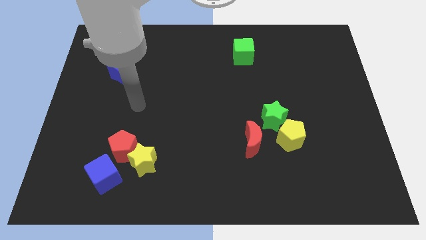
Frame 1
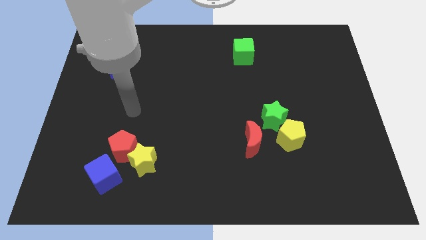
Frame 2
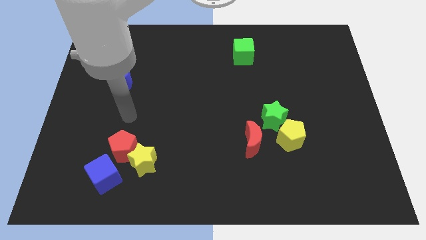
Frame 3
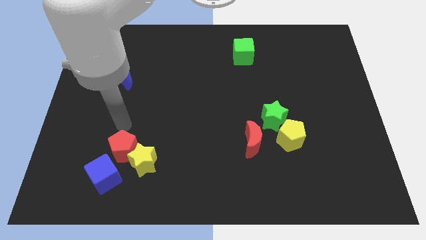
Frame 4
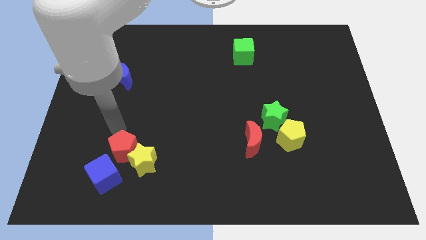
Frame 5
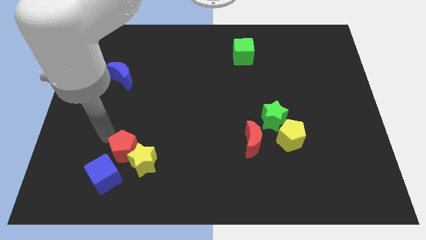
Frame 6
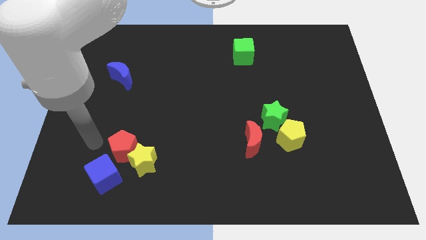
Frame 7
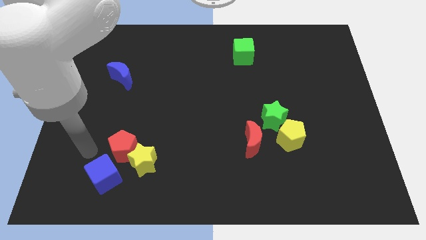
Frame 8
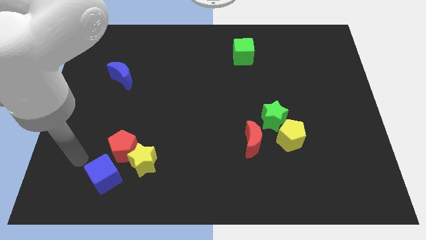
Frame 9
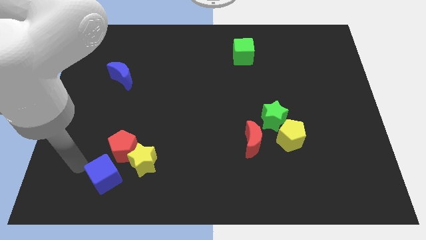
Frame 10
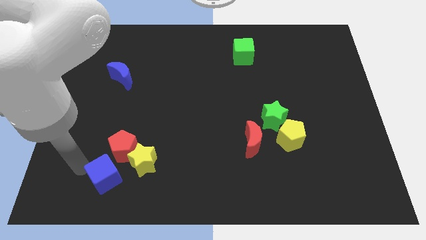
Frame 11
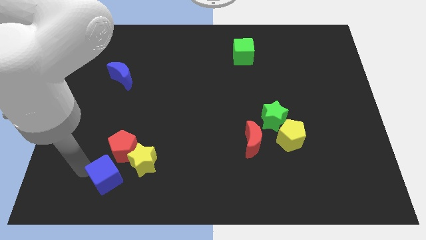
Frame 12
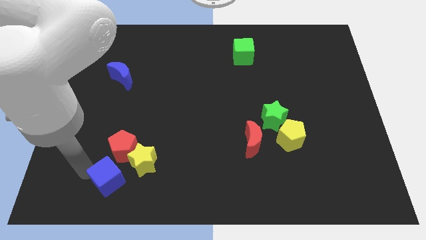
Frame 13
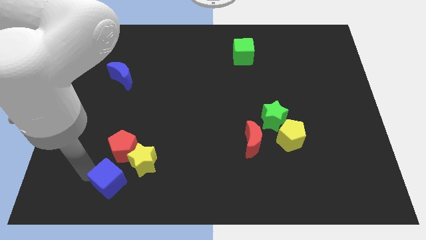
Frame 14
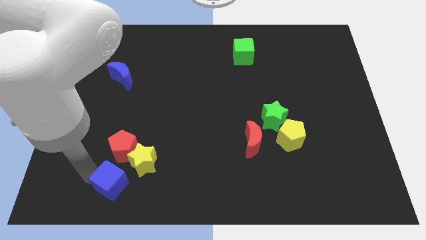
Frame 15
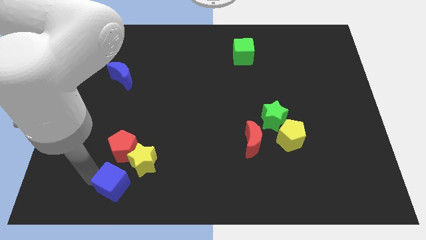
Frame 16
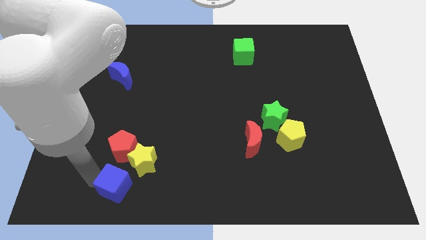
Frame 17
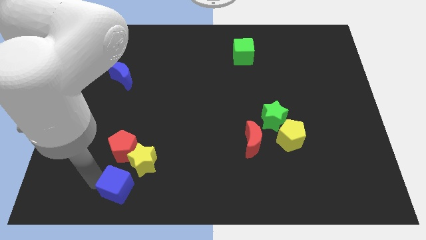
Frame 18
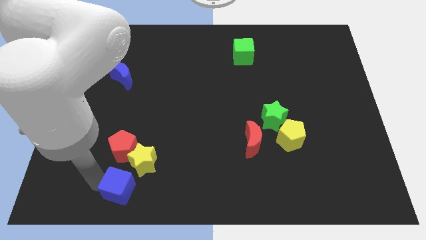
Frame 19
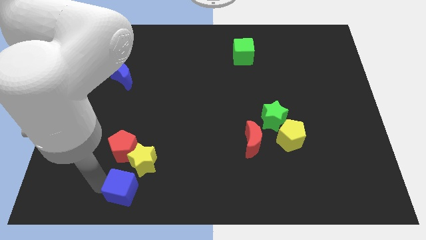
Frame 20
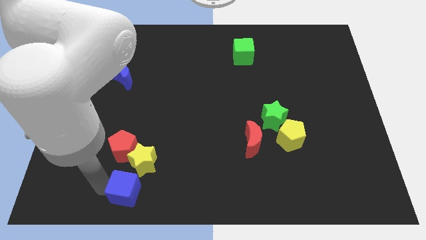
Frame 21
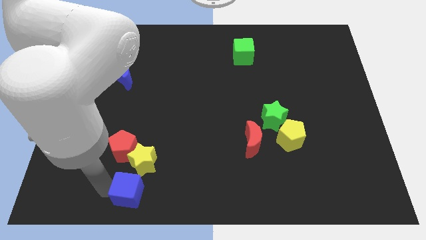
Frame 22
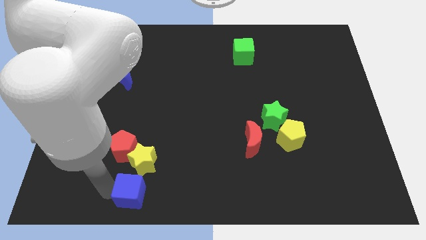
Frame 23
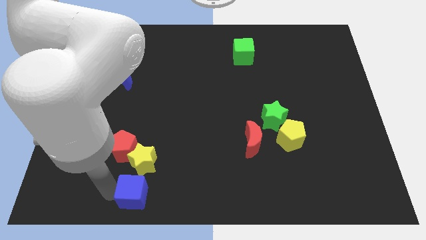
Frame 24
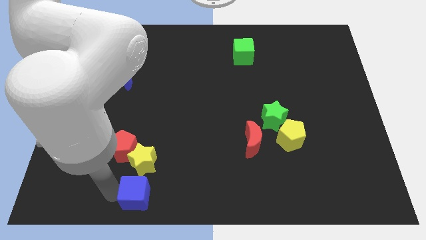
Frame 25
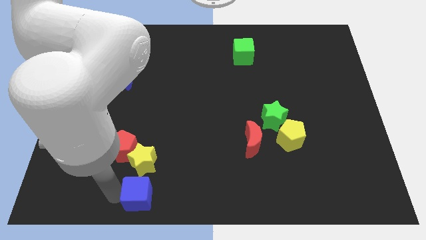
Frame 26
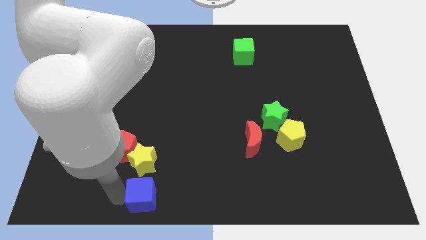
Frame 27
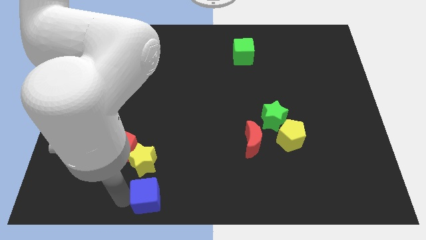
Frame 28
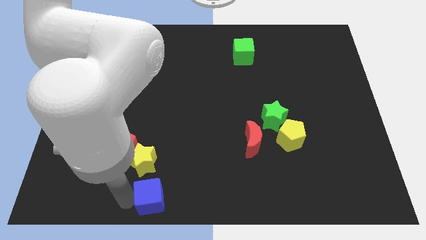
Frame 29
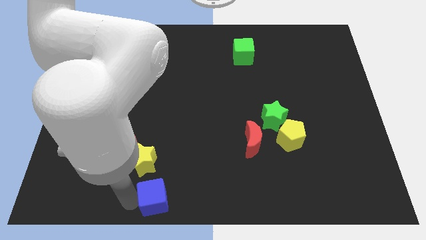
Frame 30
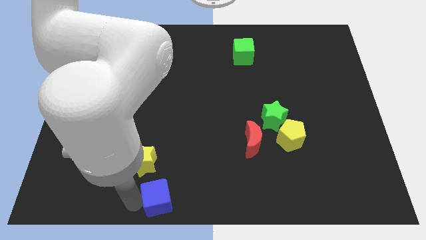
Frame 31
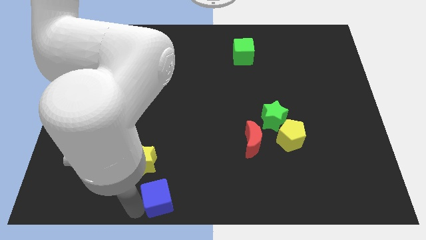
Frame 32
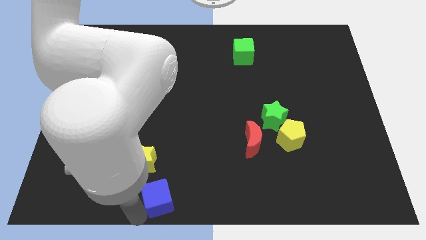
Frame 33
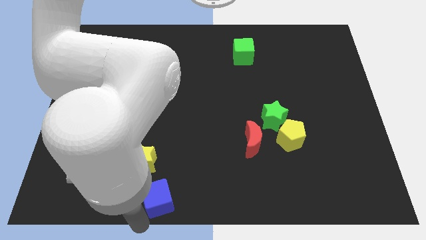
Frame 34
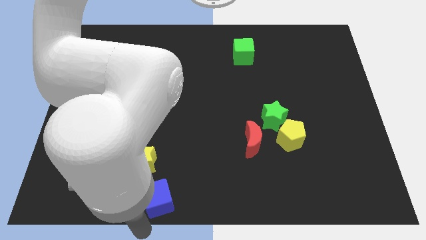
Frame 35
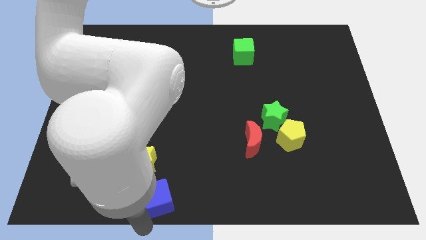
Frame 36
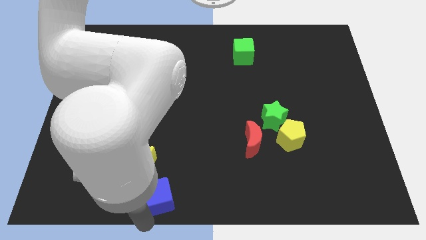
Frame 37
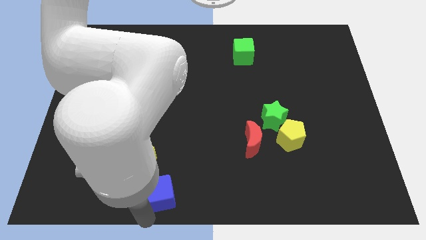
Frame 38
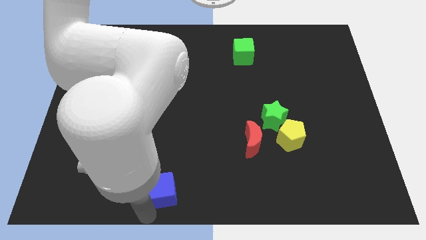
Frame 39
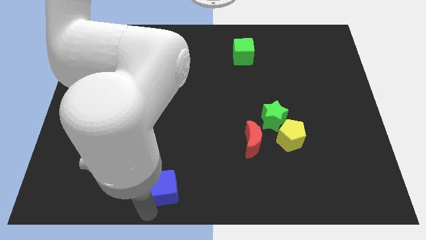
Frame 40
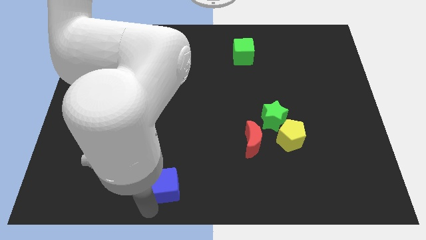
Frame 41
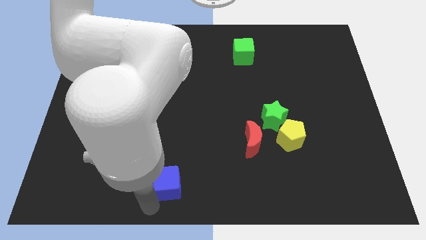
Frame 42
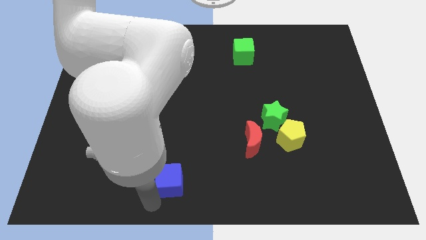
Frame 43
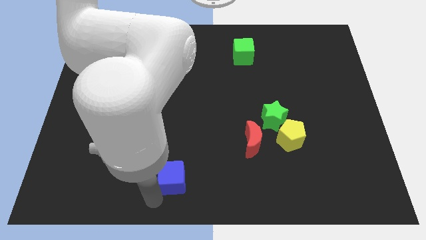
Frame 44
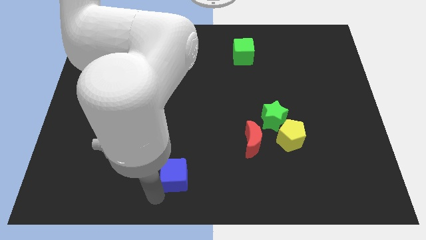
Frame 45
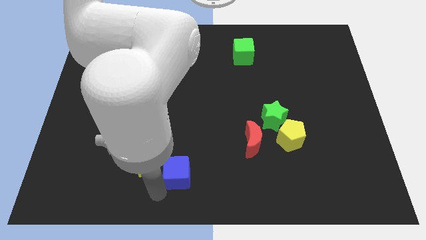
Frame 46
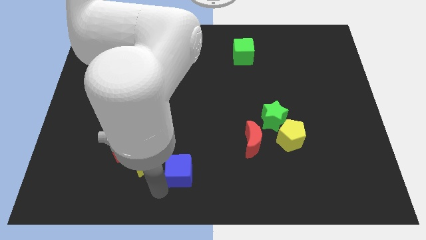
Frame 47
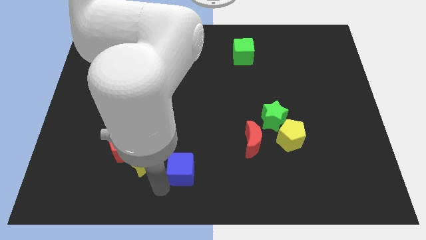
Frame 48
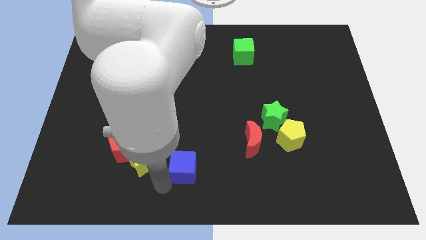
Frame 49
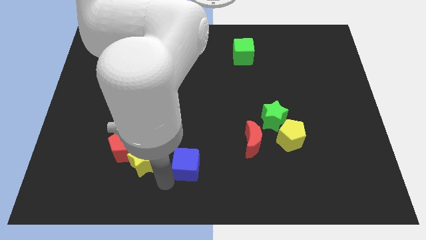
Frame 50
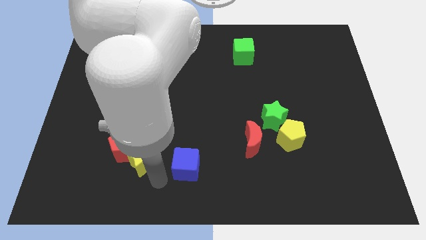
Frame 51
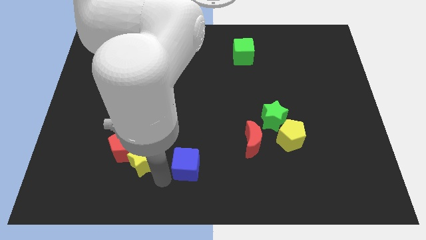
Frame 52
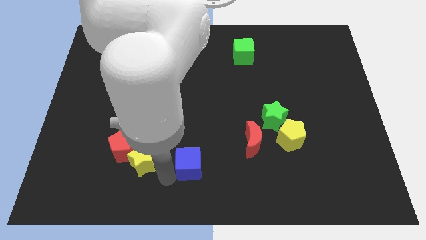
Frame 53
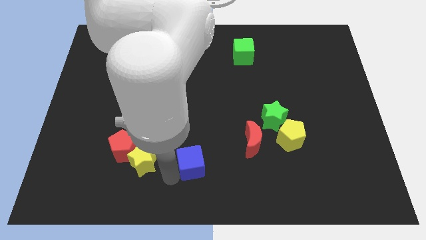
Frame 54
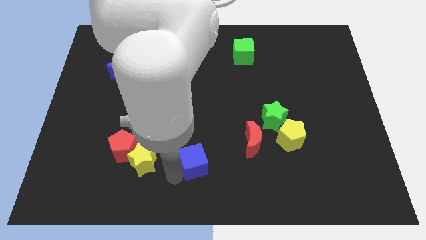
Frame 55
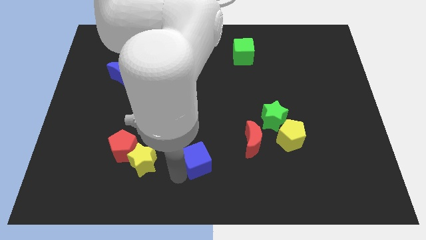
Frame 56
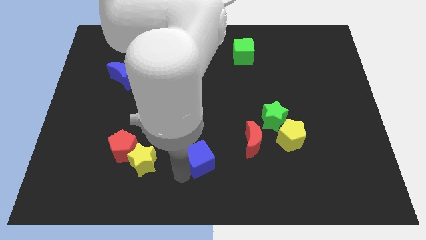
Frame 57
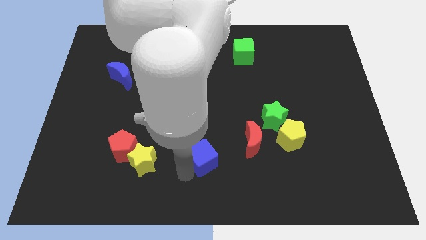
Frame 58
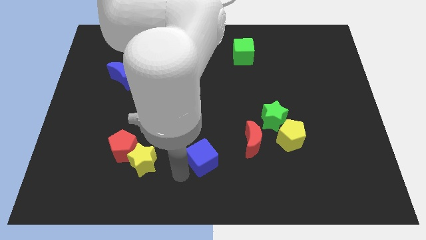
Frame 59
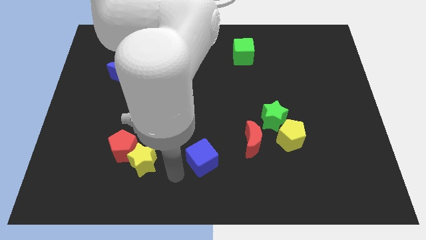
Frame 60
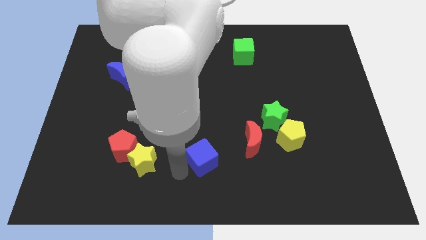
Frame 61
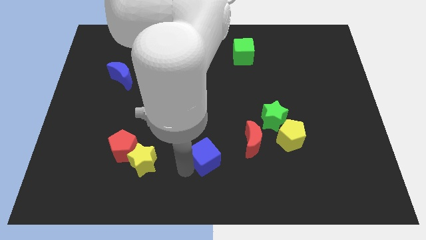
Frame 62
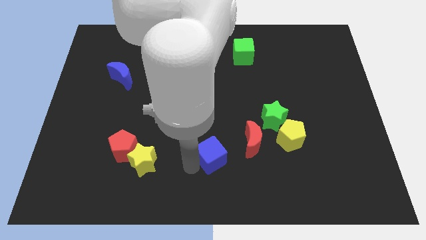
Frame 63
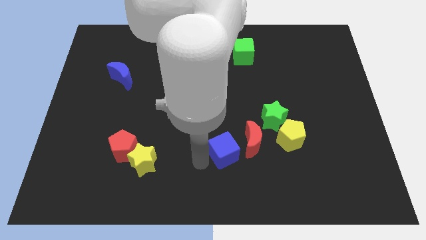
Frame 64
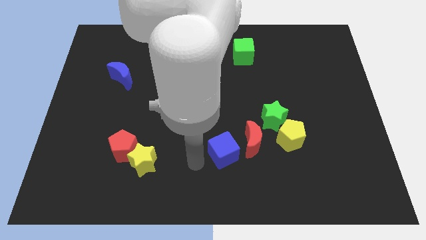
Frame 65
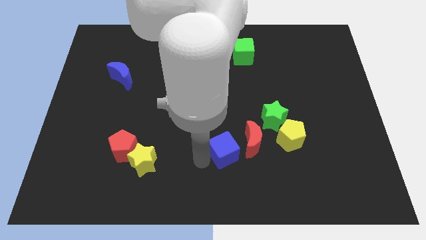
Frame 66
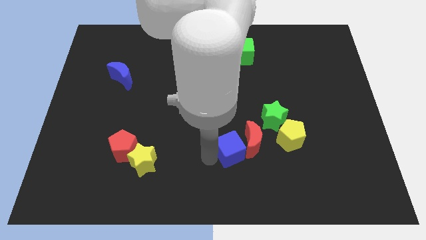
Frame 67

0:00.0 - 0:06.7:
put the blue cube to the red moon

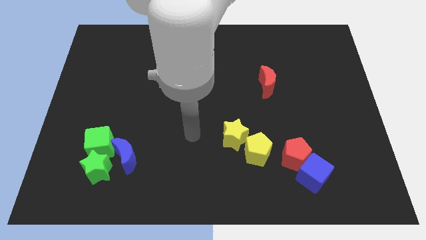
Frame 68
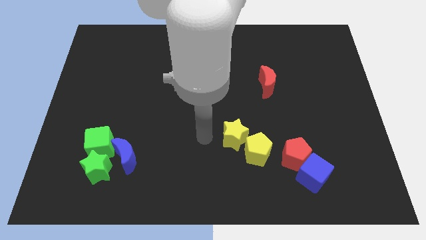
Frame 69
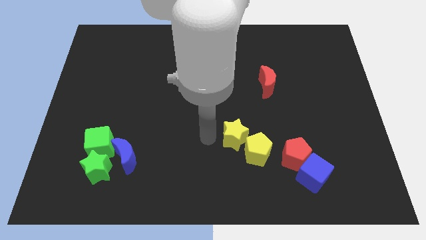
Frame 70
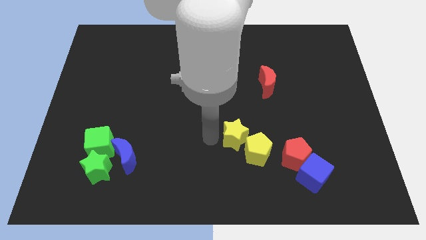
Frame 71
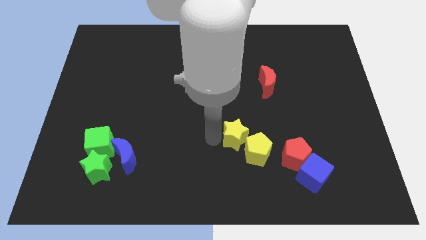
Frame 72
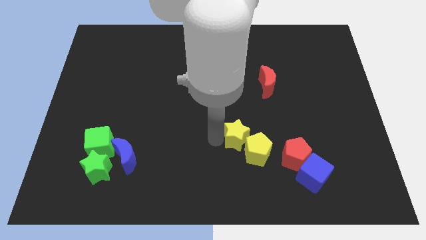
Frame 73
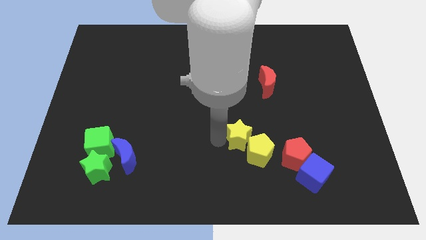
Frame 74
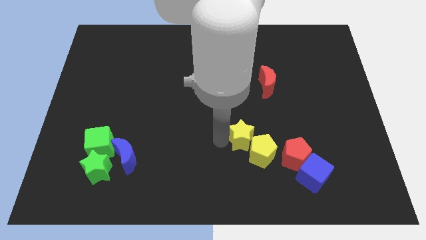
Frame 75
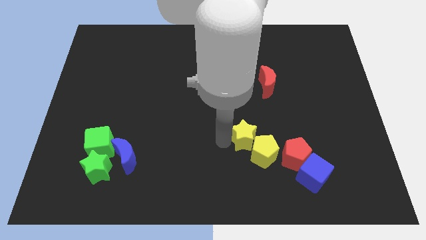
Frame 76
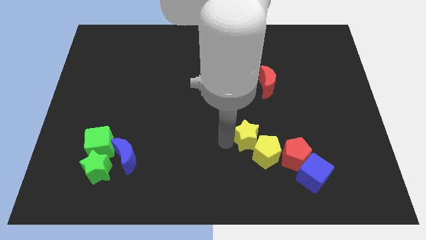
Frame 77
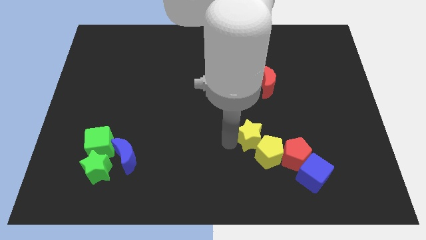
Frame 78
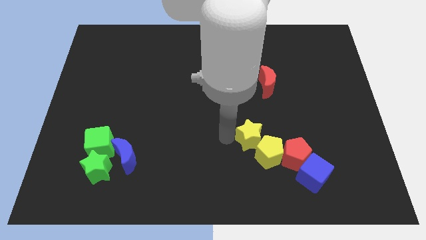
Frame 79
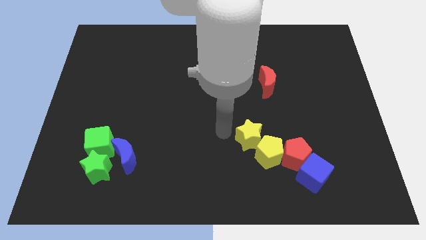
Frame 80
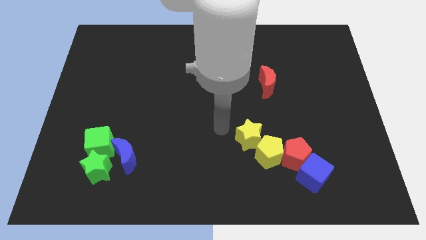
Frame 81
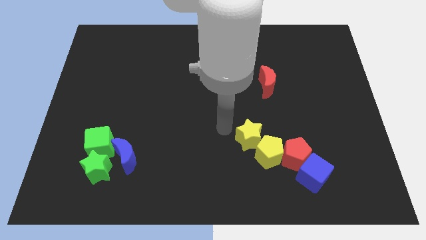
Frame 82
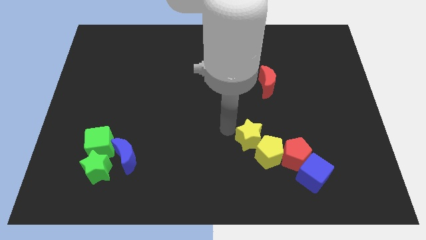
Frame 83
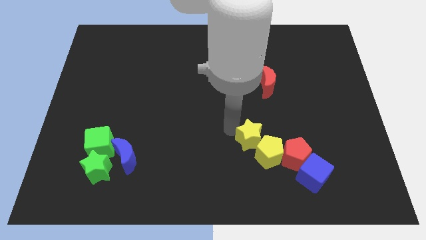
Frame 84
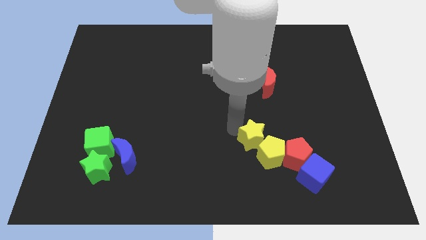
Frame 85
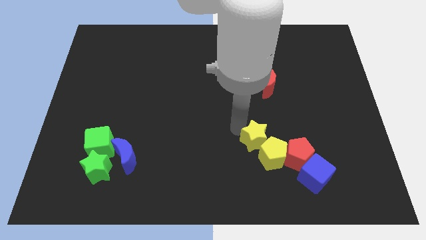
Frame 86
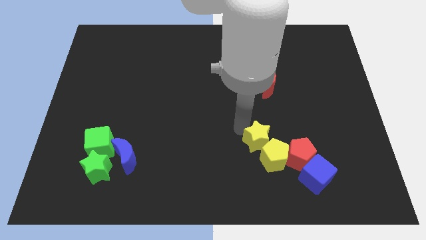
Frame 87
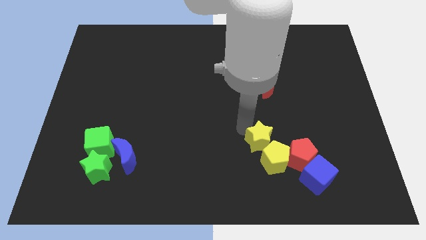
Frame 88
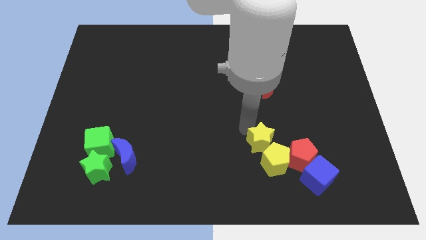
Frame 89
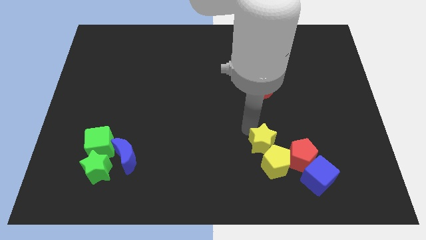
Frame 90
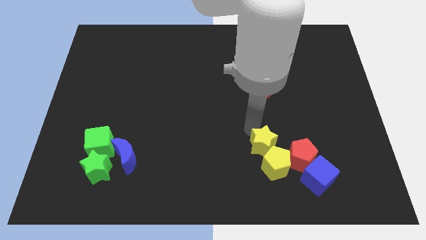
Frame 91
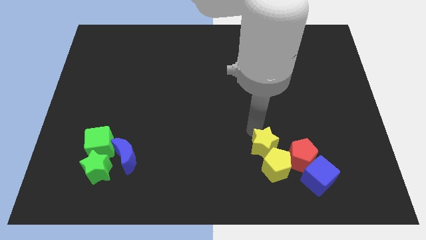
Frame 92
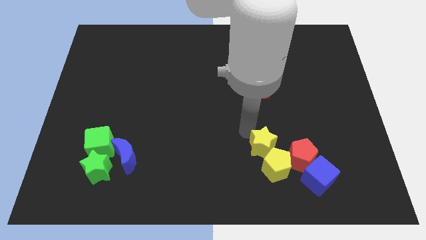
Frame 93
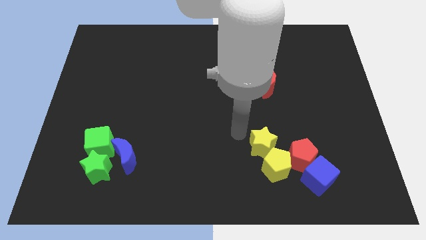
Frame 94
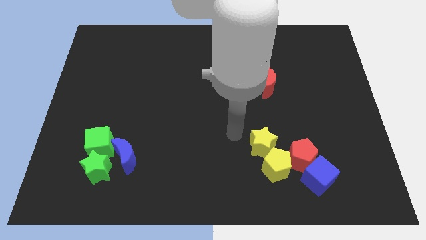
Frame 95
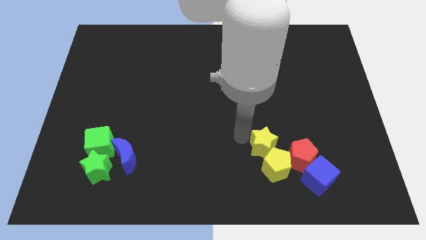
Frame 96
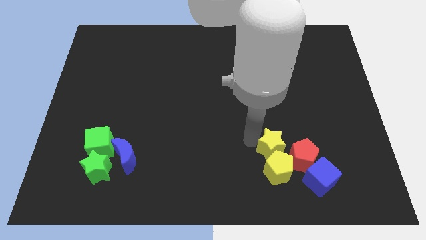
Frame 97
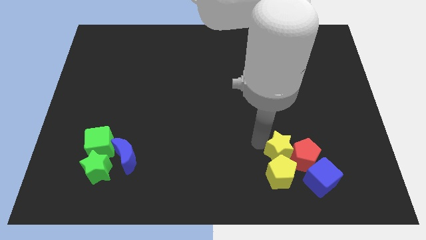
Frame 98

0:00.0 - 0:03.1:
push the yellow star to the red pentagon
